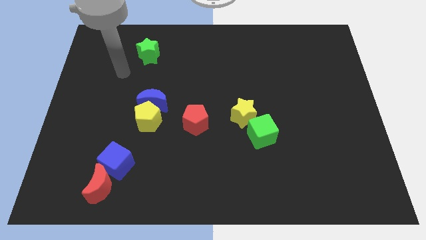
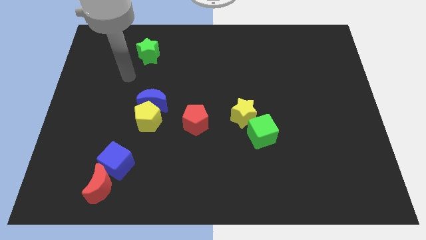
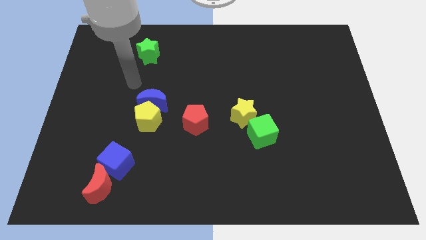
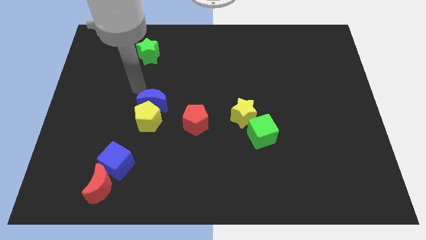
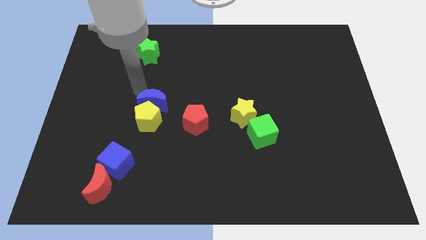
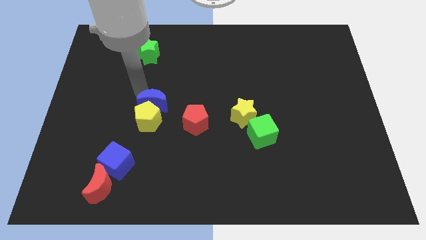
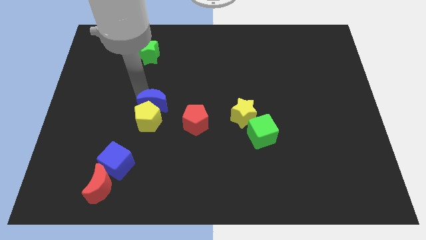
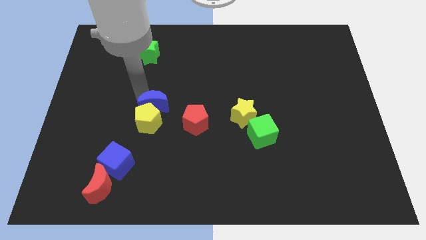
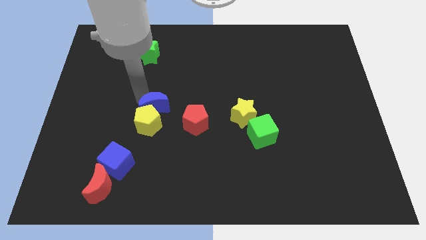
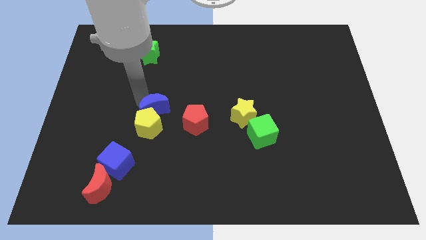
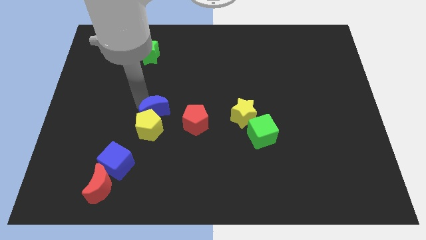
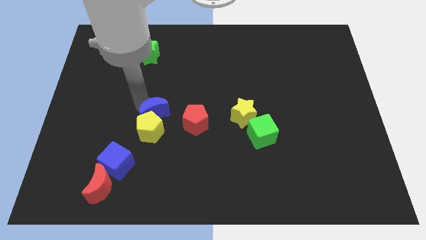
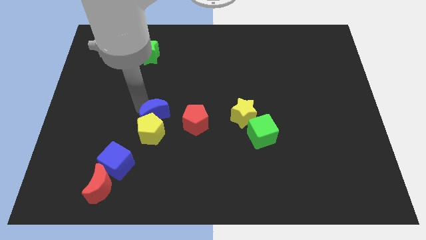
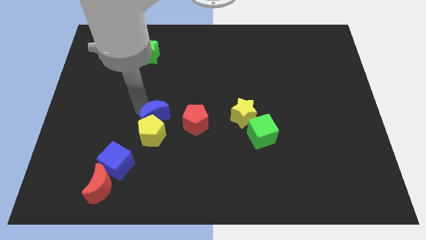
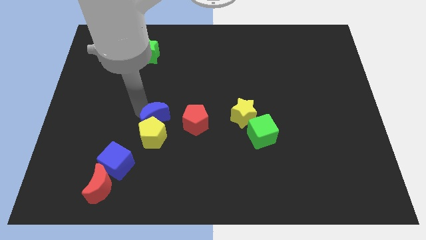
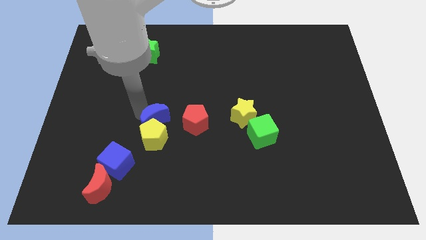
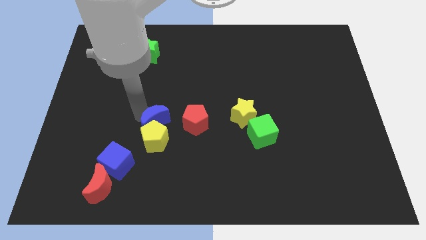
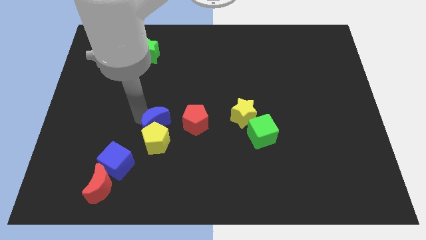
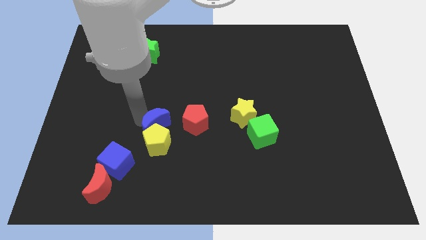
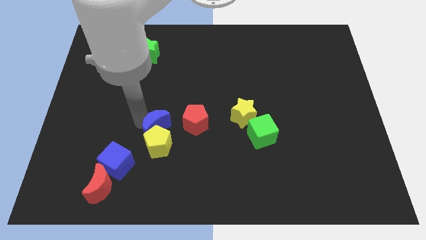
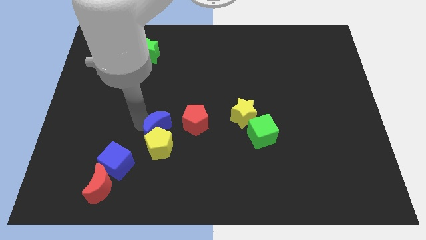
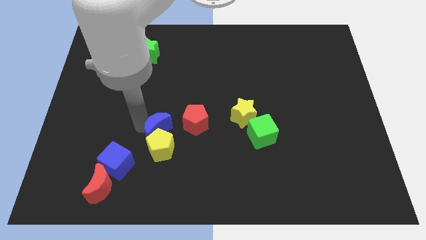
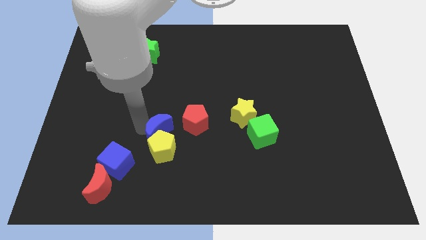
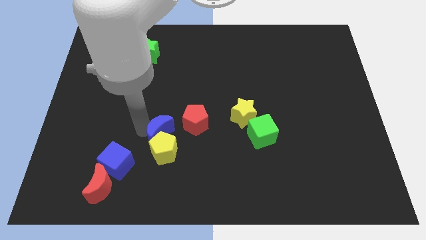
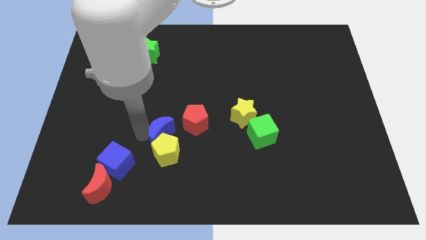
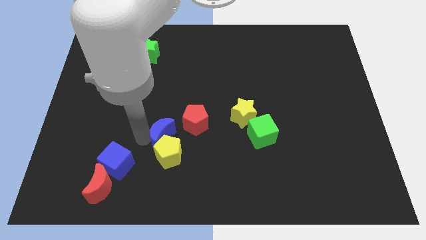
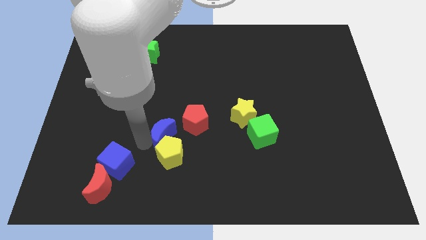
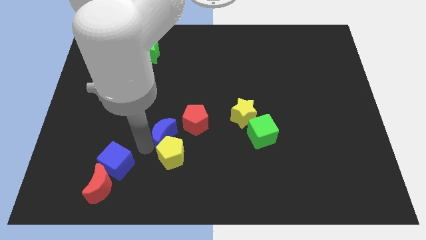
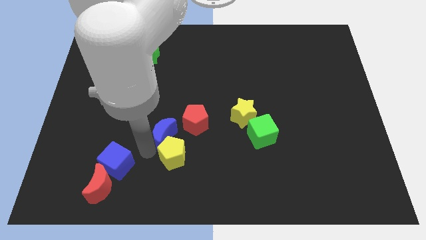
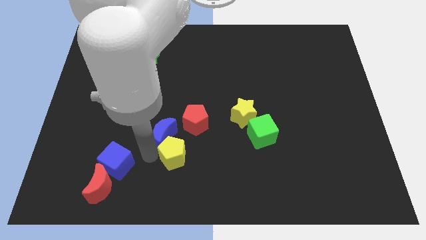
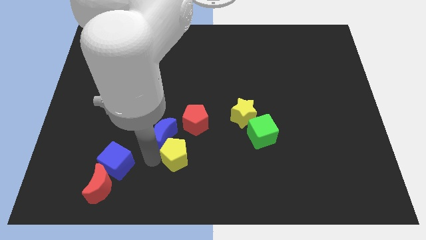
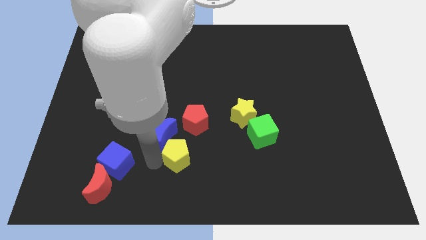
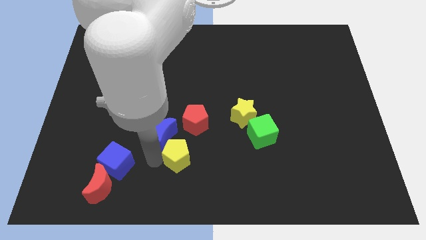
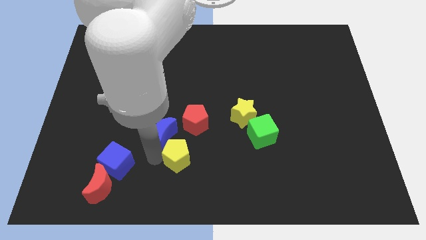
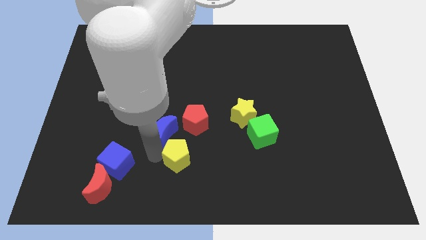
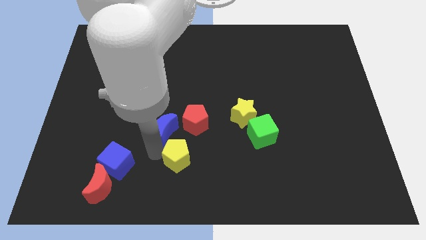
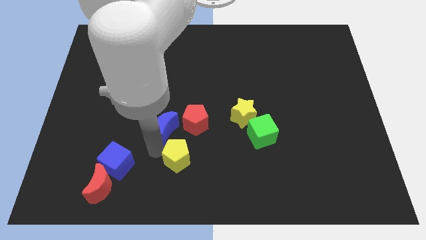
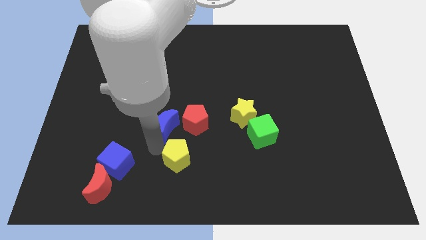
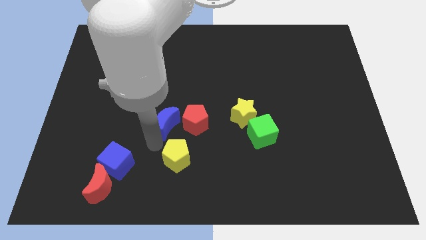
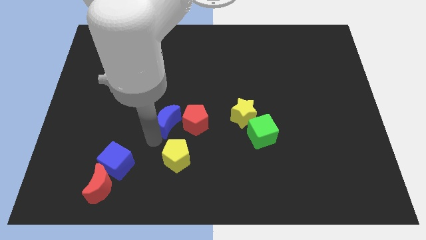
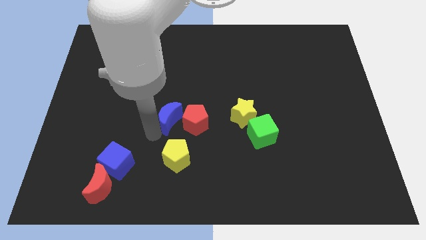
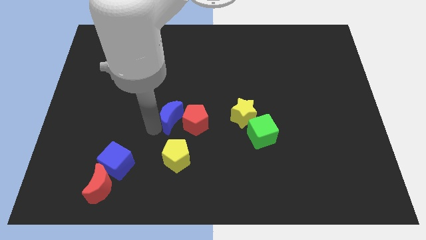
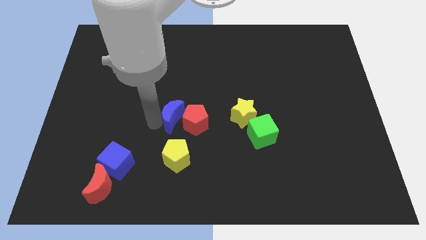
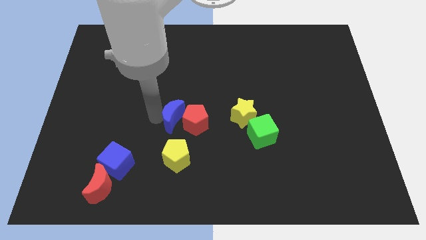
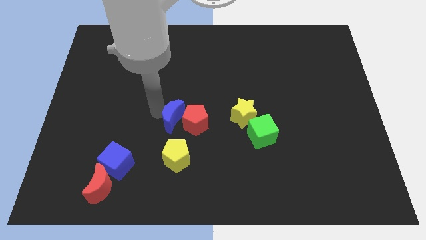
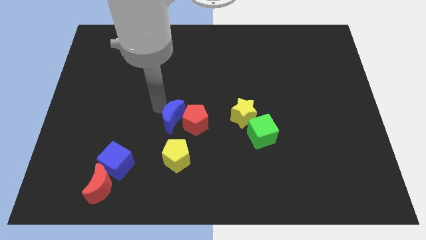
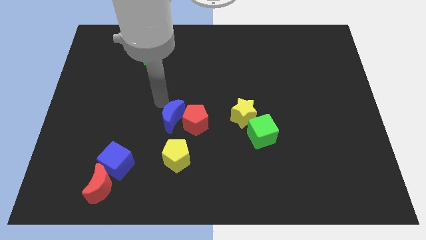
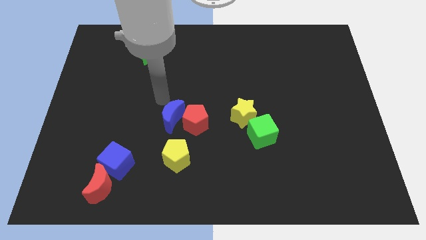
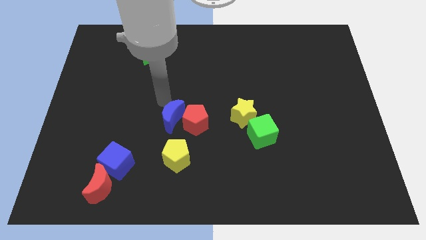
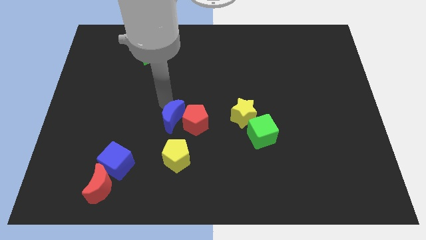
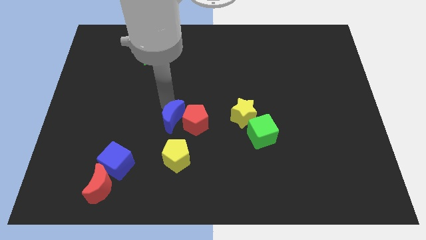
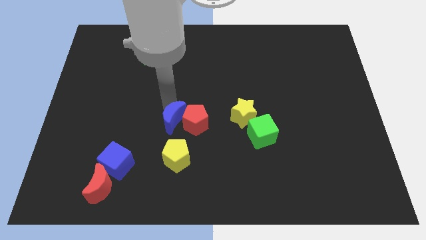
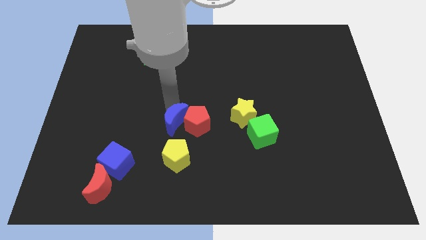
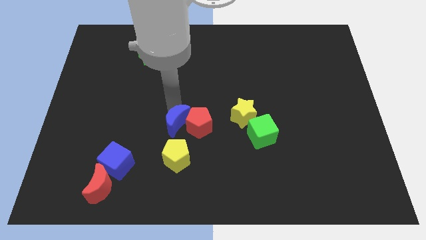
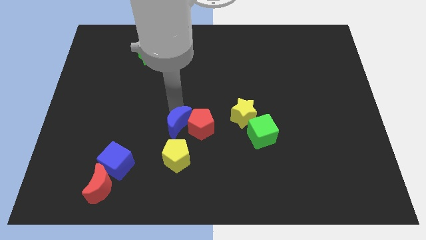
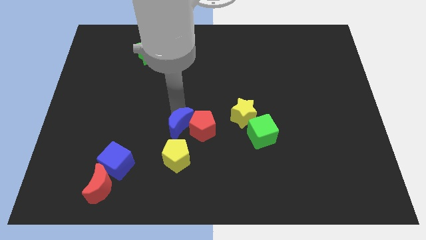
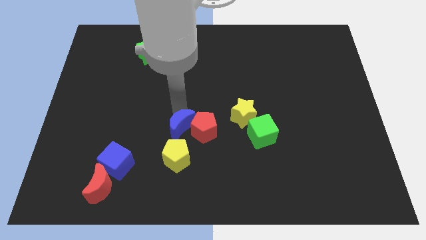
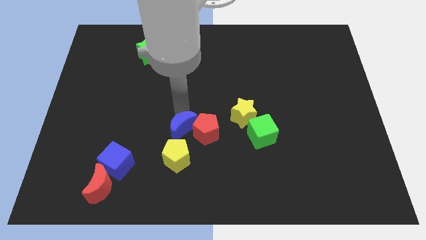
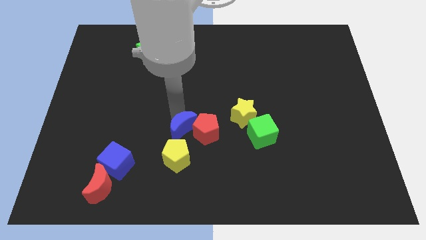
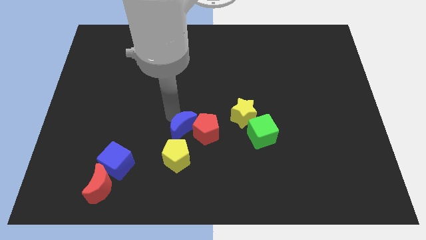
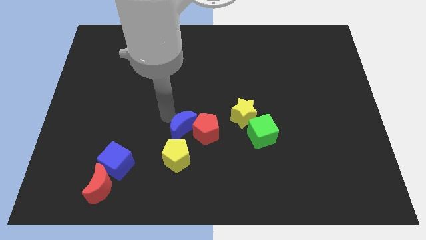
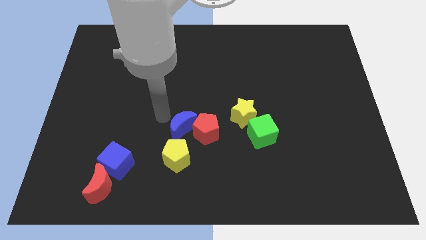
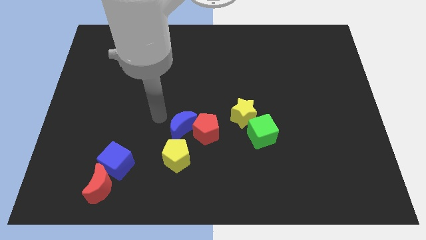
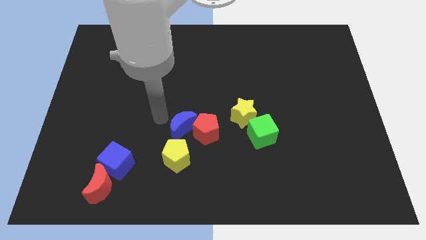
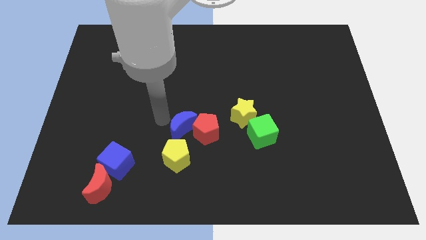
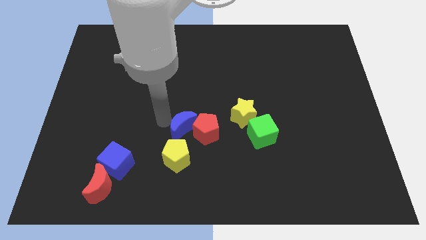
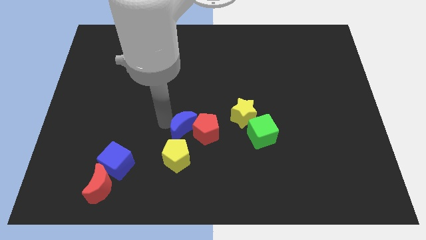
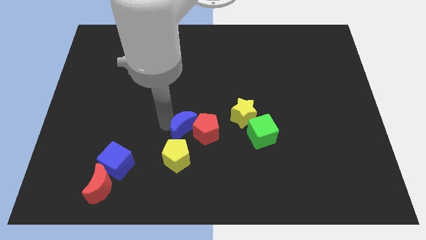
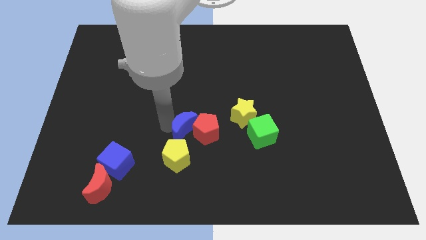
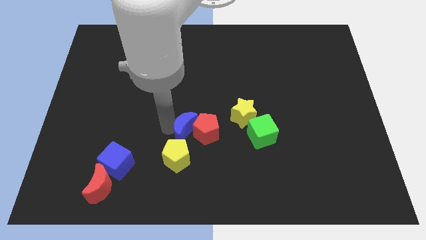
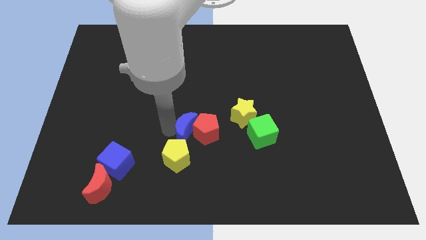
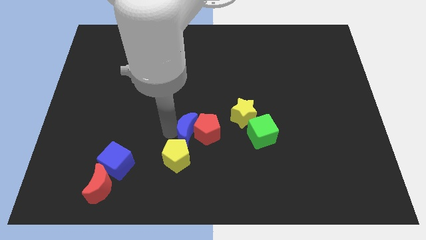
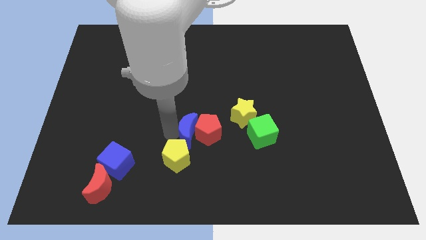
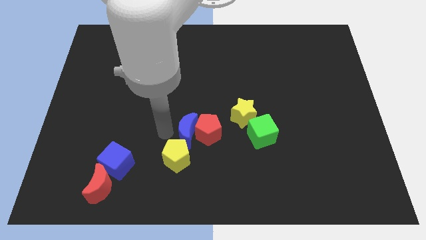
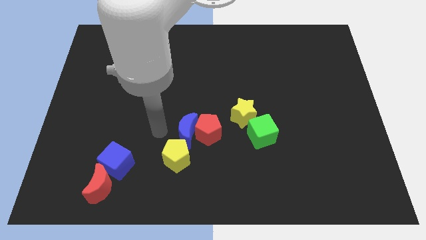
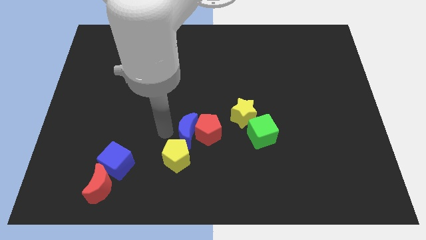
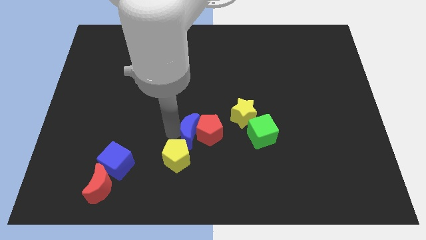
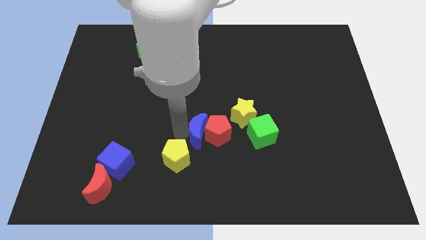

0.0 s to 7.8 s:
push the blue moon diagonally down and to the left of the yellow star
